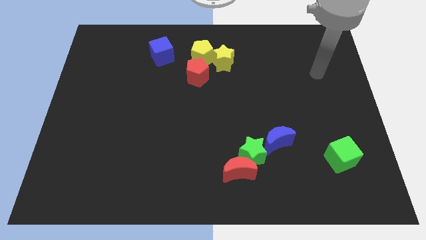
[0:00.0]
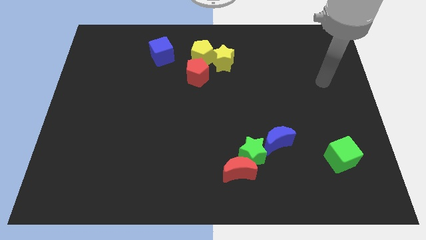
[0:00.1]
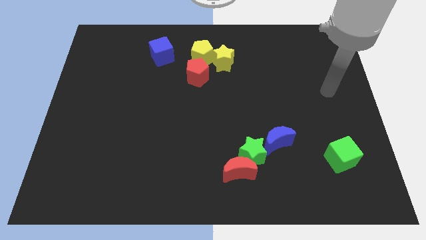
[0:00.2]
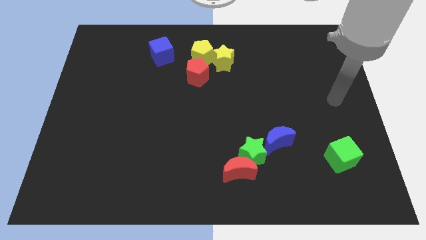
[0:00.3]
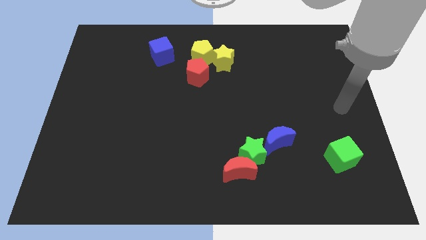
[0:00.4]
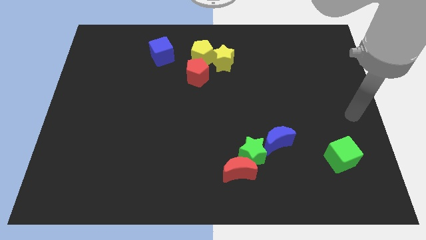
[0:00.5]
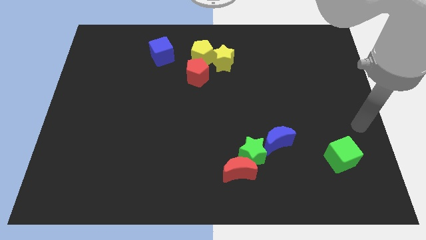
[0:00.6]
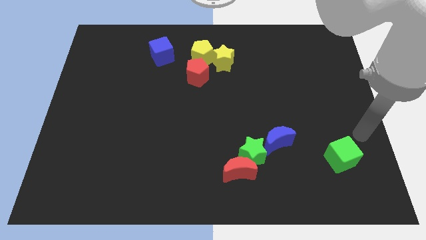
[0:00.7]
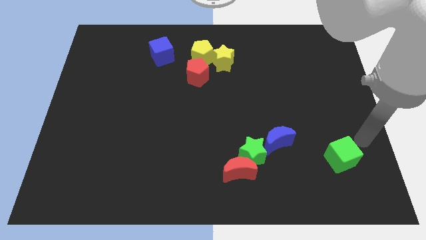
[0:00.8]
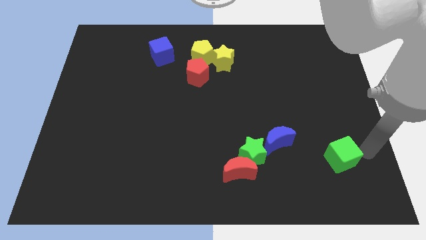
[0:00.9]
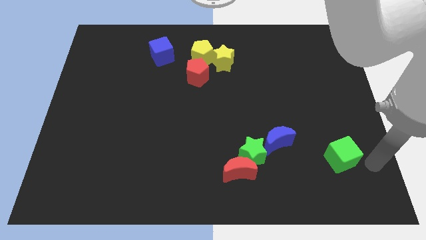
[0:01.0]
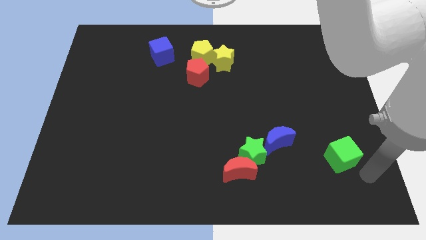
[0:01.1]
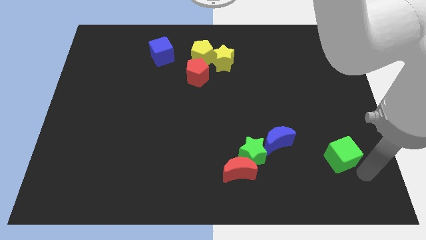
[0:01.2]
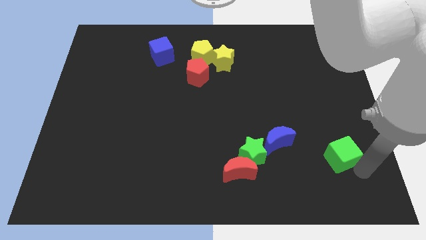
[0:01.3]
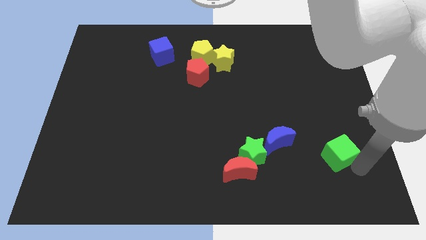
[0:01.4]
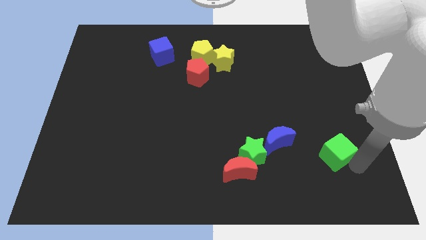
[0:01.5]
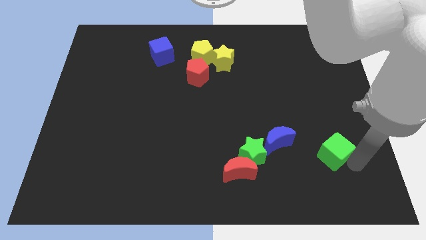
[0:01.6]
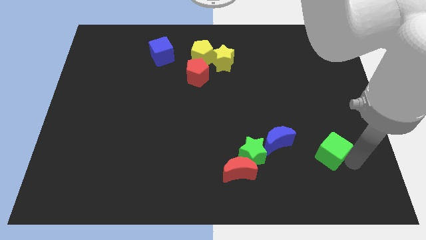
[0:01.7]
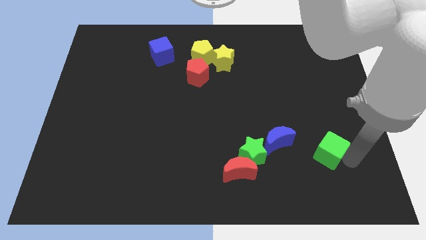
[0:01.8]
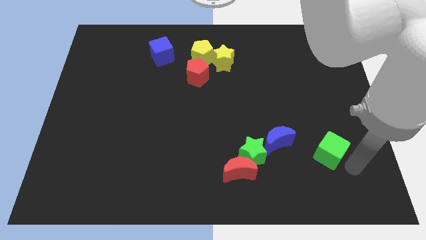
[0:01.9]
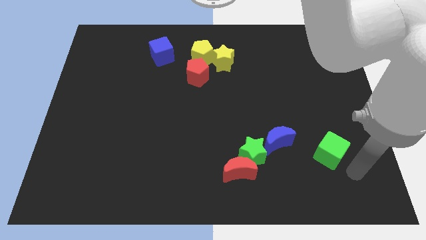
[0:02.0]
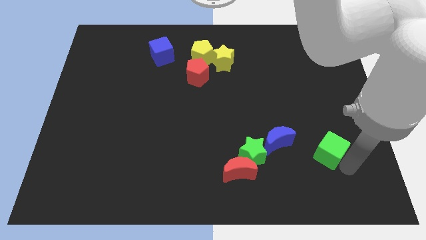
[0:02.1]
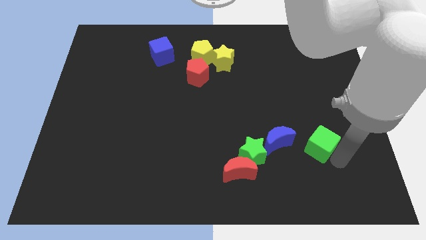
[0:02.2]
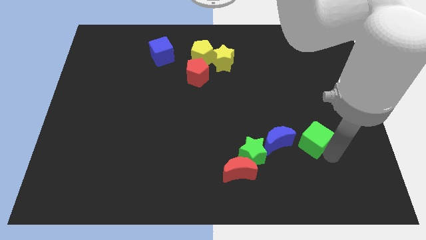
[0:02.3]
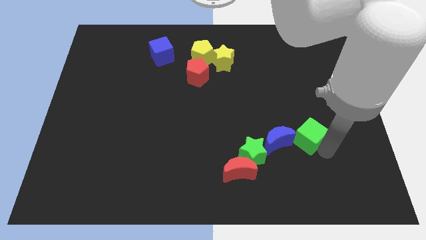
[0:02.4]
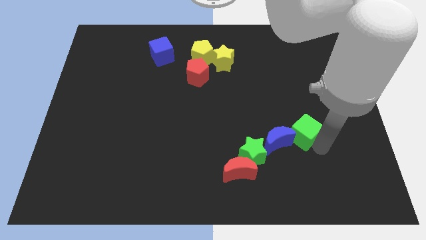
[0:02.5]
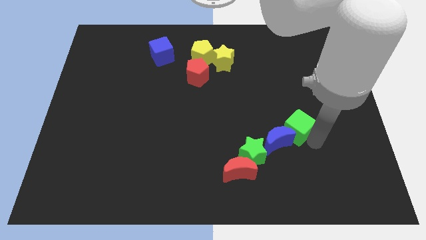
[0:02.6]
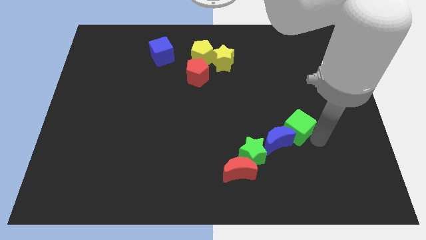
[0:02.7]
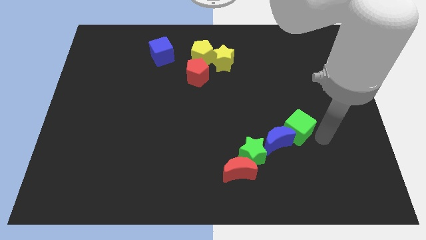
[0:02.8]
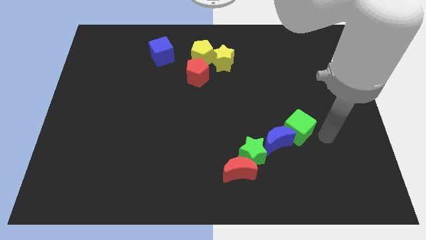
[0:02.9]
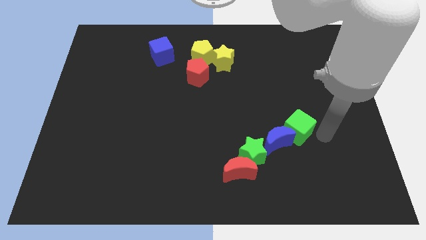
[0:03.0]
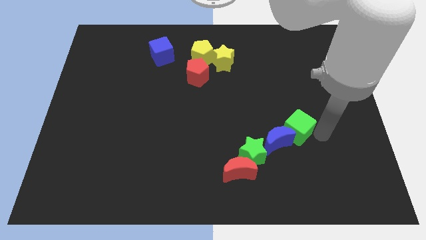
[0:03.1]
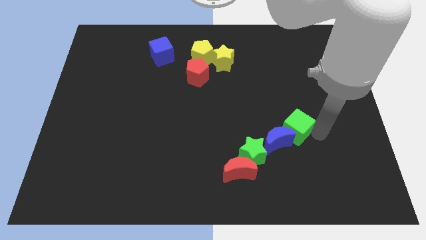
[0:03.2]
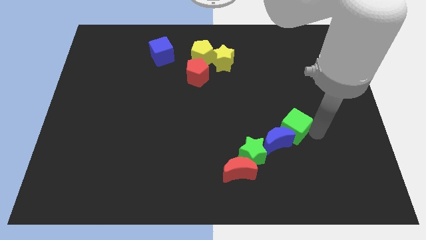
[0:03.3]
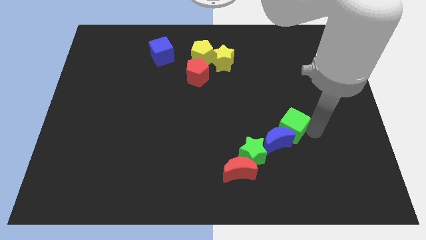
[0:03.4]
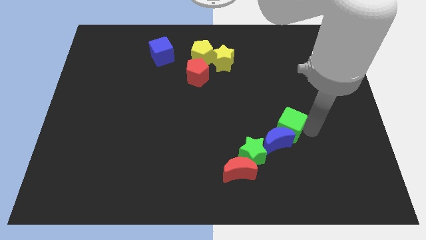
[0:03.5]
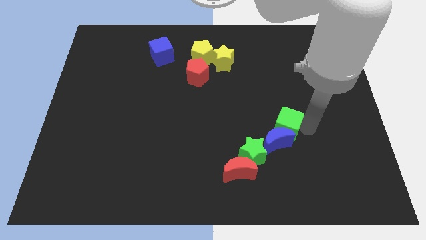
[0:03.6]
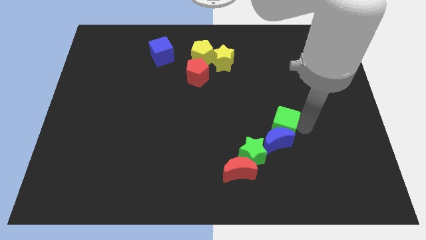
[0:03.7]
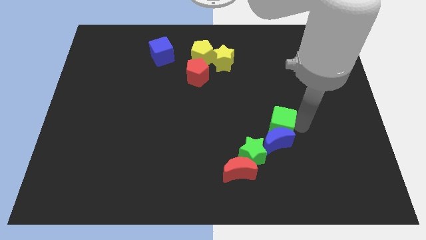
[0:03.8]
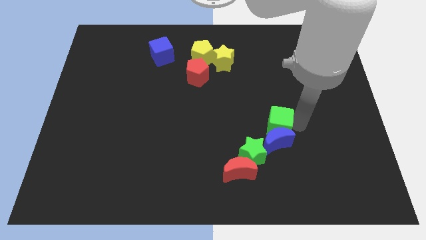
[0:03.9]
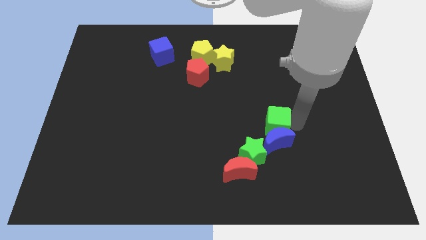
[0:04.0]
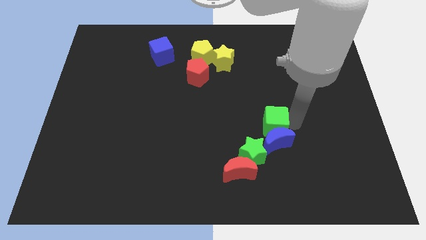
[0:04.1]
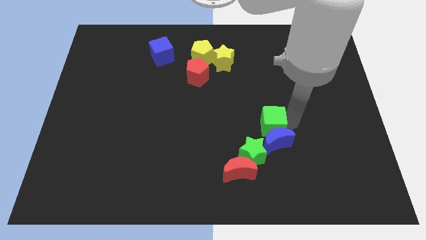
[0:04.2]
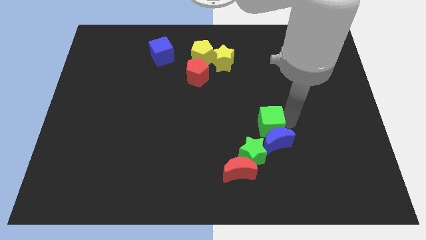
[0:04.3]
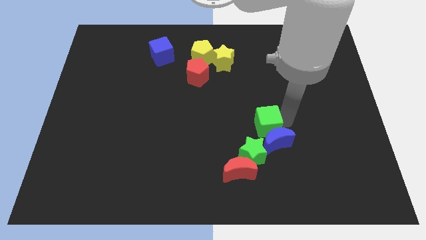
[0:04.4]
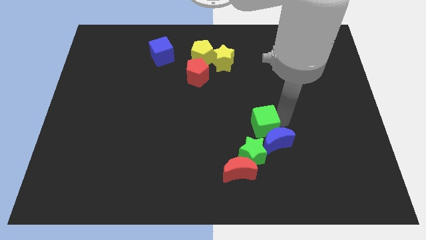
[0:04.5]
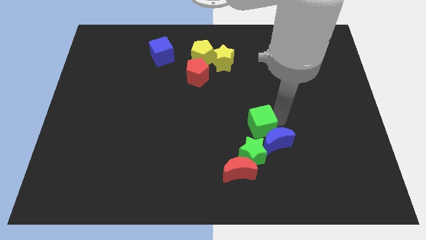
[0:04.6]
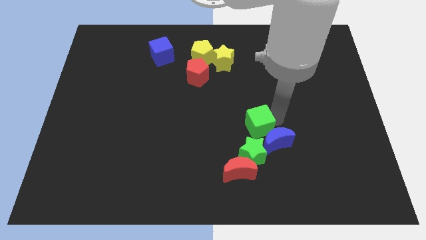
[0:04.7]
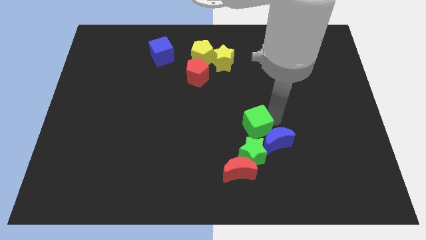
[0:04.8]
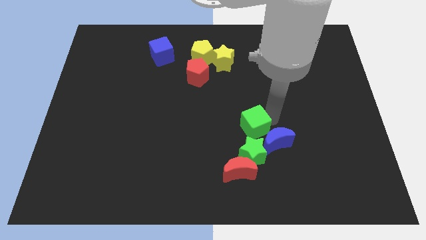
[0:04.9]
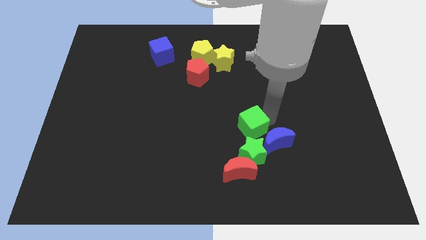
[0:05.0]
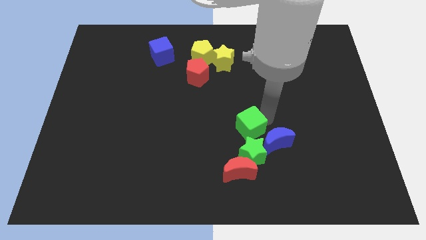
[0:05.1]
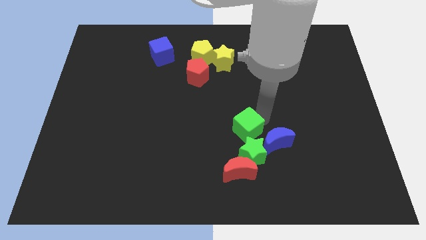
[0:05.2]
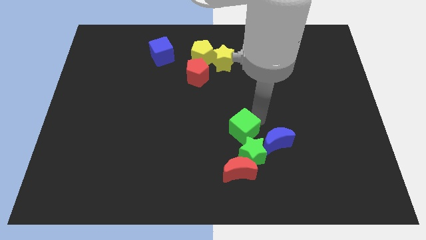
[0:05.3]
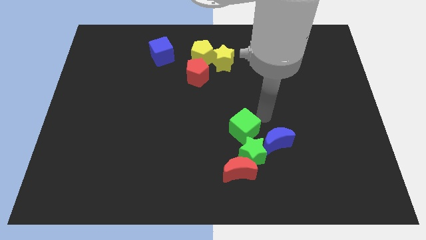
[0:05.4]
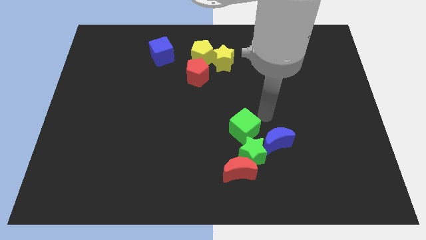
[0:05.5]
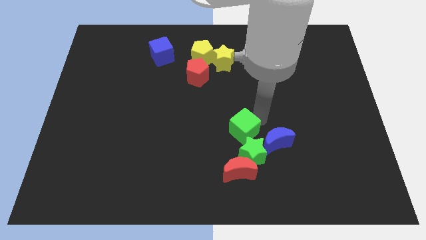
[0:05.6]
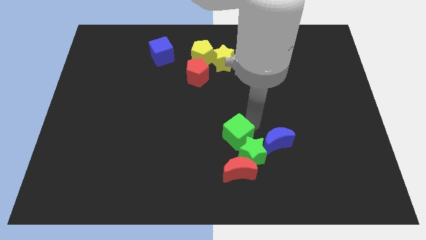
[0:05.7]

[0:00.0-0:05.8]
push the green cube left

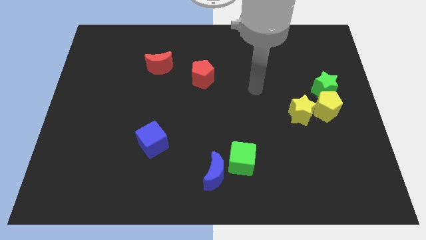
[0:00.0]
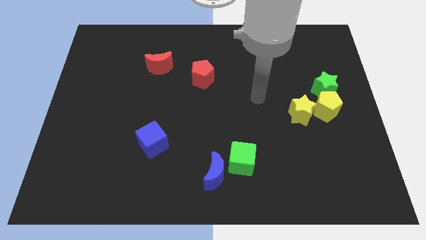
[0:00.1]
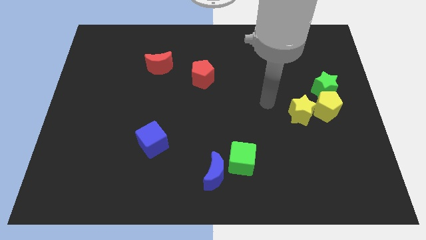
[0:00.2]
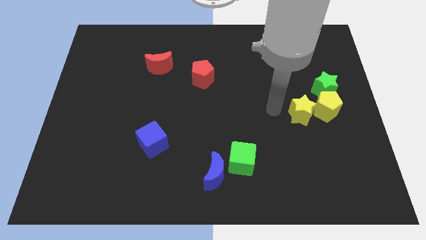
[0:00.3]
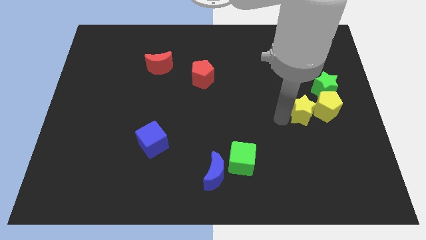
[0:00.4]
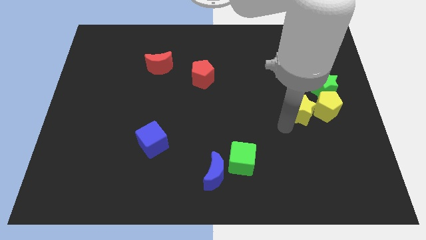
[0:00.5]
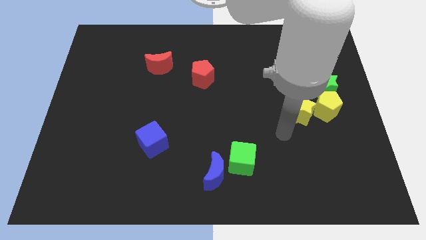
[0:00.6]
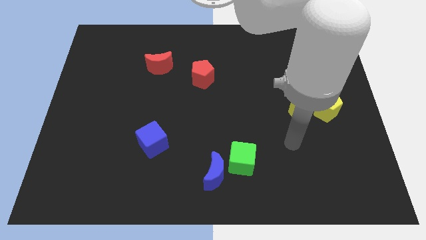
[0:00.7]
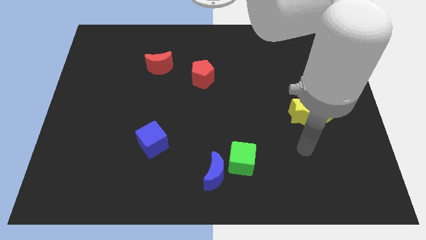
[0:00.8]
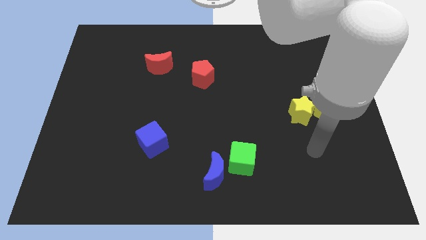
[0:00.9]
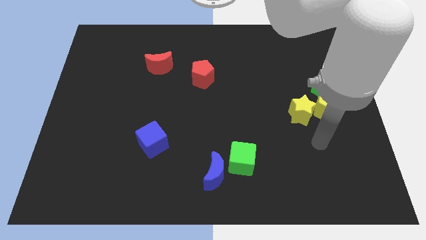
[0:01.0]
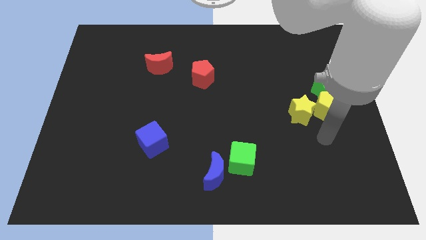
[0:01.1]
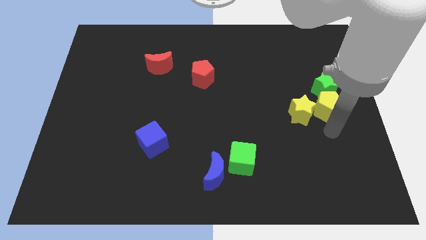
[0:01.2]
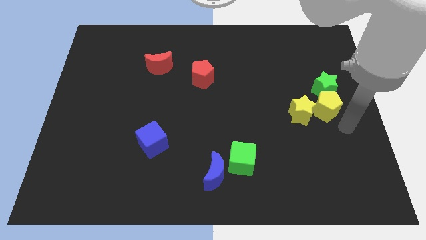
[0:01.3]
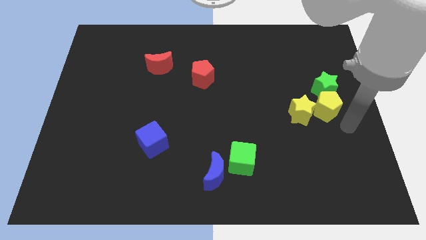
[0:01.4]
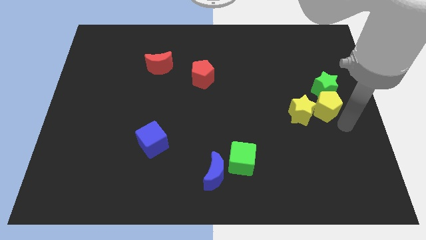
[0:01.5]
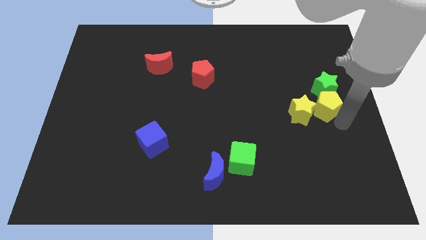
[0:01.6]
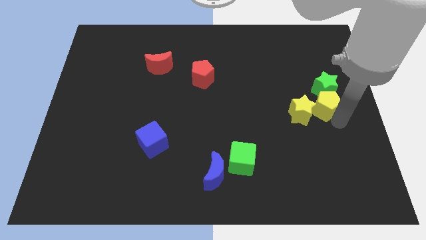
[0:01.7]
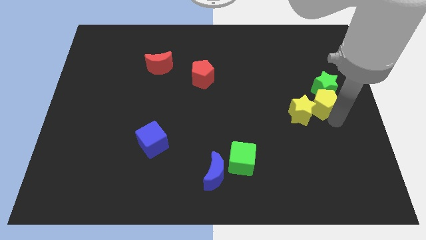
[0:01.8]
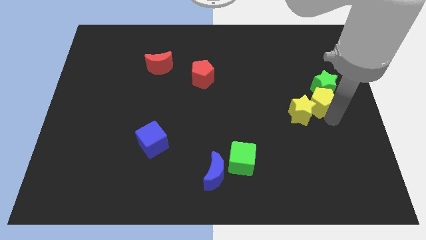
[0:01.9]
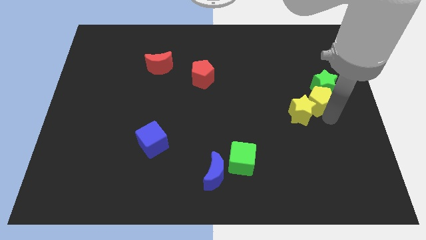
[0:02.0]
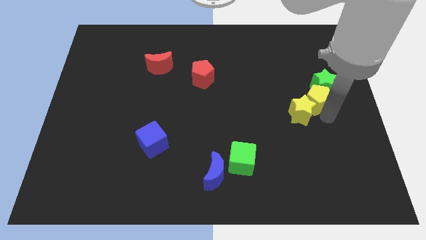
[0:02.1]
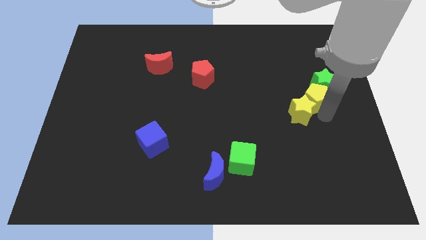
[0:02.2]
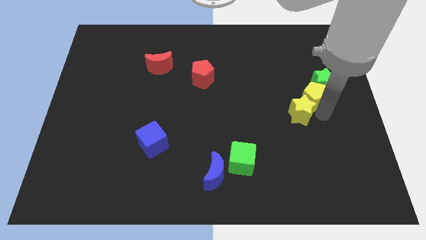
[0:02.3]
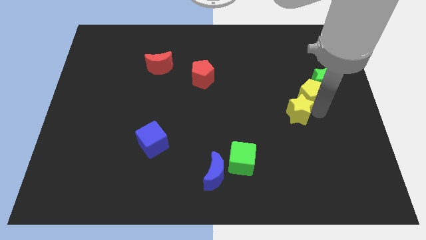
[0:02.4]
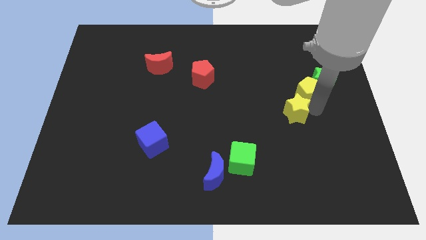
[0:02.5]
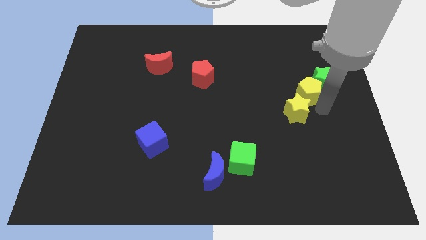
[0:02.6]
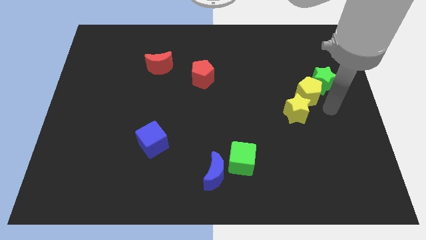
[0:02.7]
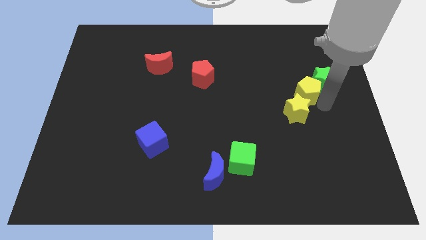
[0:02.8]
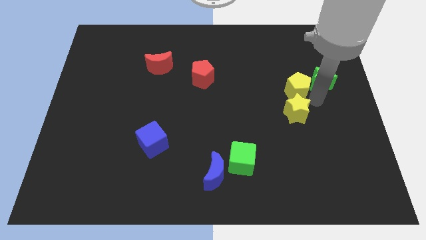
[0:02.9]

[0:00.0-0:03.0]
slide the yellow pentagon somewhat diagonally upwards and to the left
